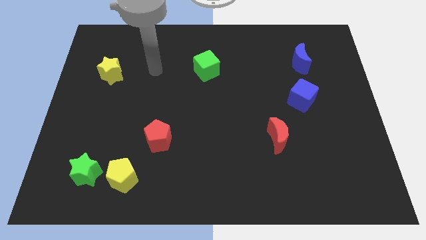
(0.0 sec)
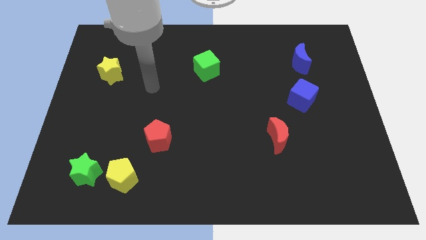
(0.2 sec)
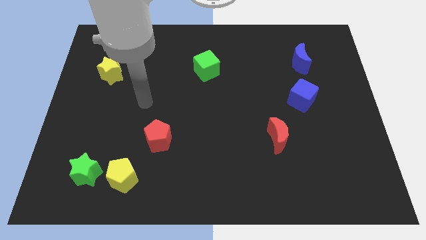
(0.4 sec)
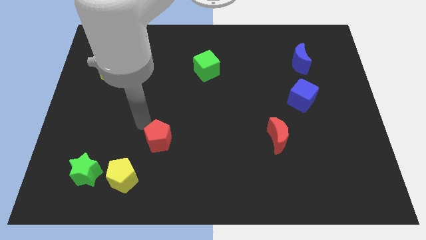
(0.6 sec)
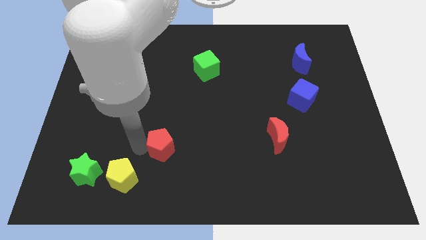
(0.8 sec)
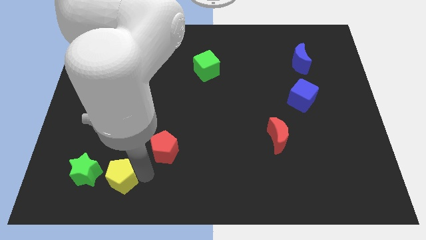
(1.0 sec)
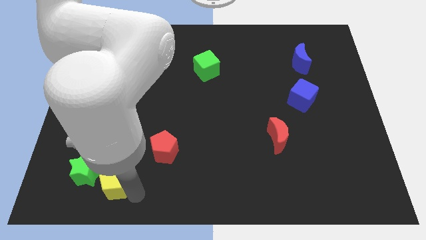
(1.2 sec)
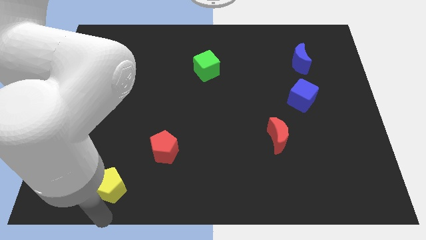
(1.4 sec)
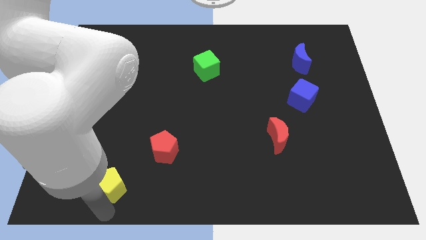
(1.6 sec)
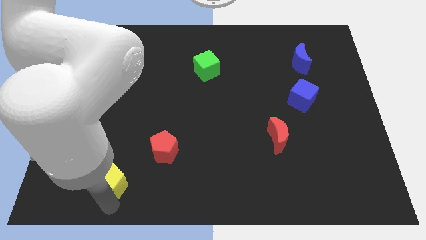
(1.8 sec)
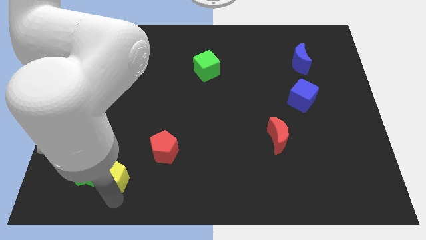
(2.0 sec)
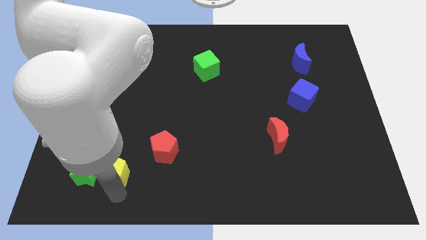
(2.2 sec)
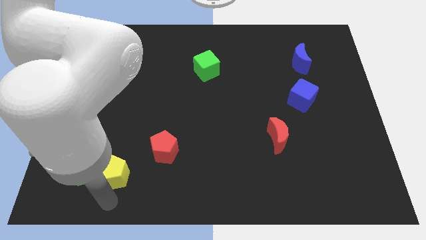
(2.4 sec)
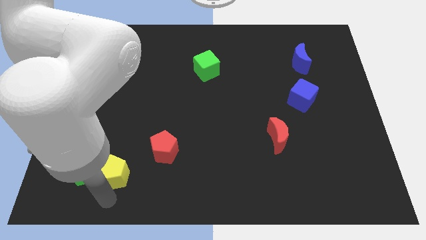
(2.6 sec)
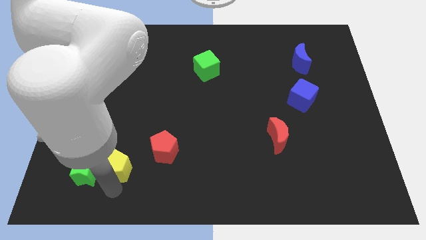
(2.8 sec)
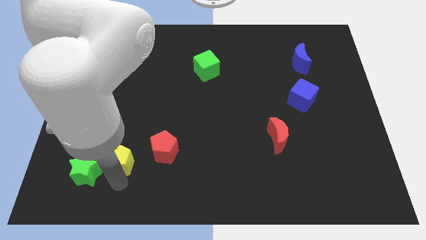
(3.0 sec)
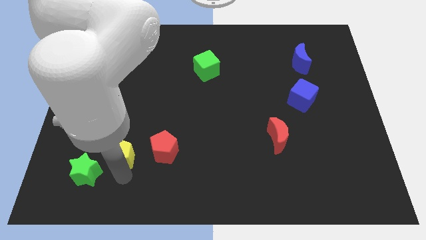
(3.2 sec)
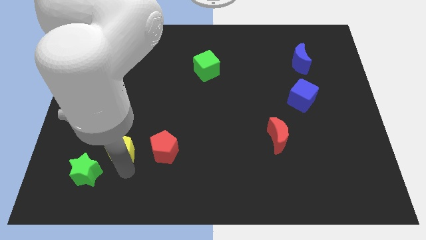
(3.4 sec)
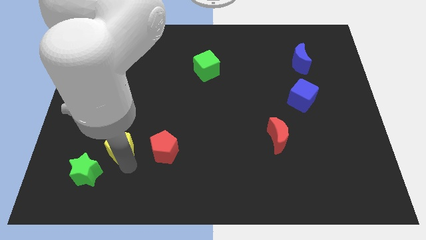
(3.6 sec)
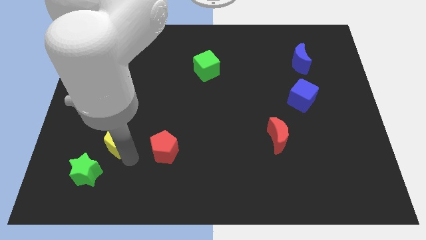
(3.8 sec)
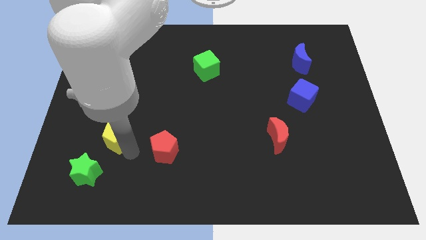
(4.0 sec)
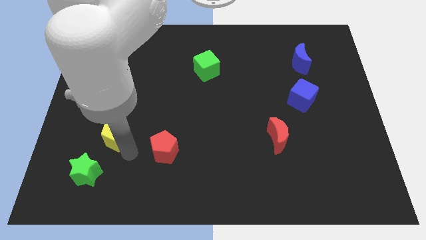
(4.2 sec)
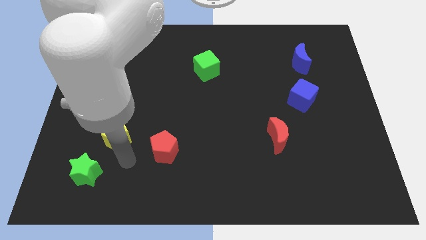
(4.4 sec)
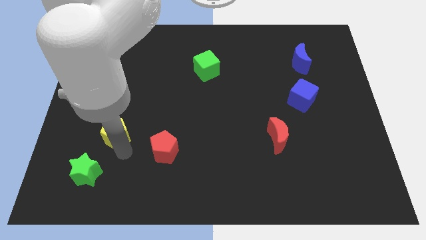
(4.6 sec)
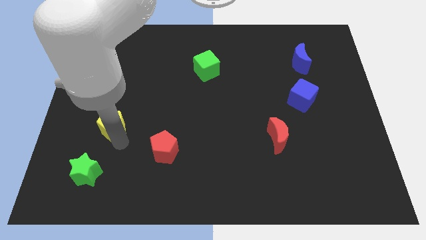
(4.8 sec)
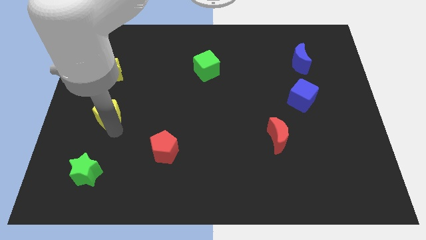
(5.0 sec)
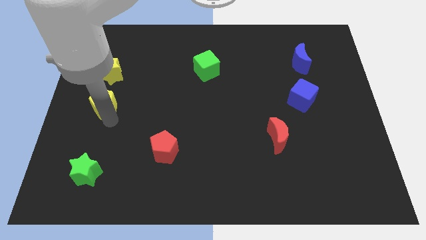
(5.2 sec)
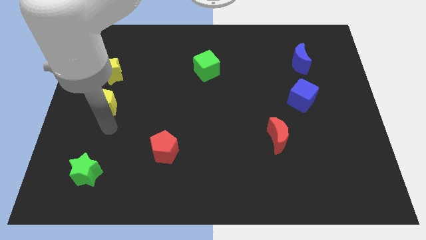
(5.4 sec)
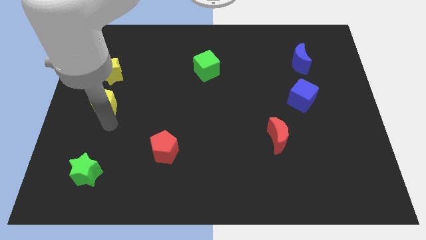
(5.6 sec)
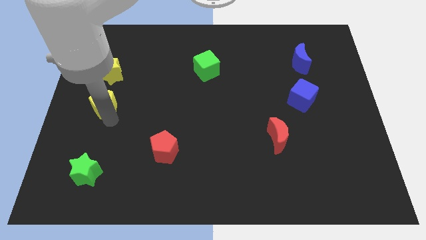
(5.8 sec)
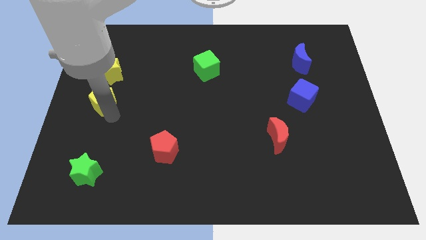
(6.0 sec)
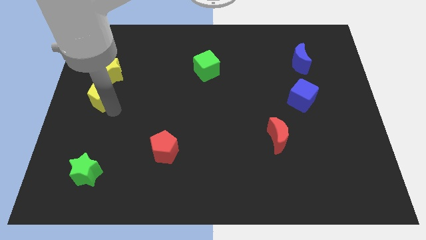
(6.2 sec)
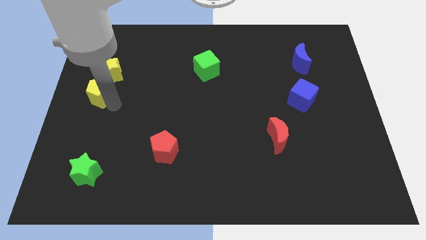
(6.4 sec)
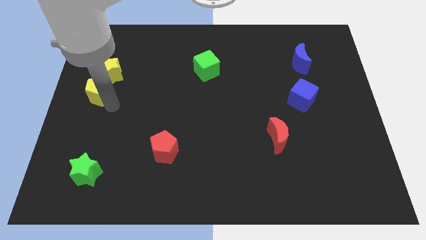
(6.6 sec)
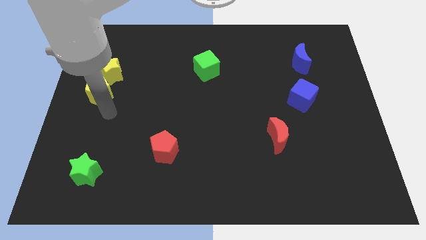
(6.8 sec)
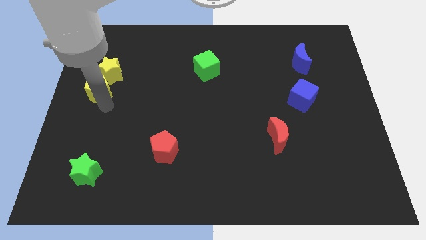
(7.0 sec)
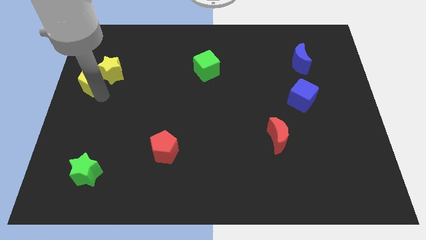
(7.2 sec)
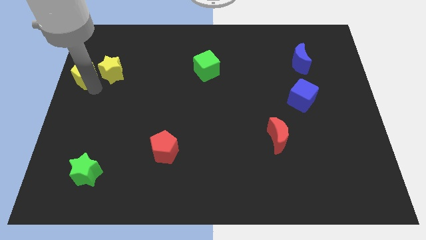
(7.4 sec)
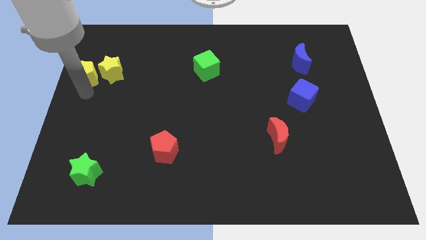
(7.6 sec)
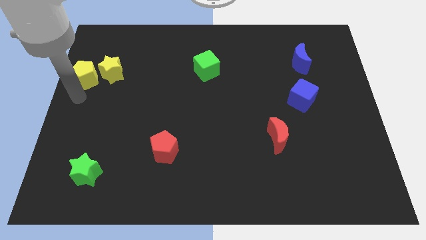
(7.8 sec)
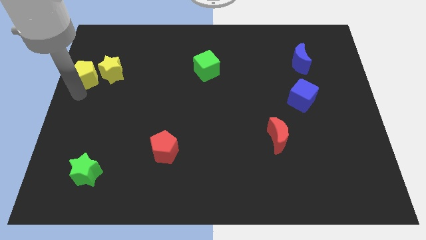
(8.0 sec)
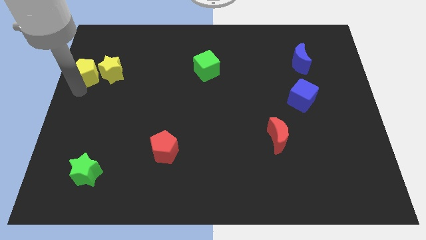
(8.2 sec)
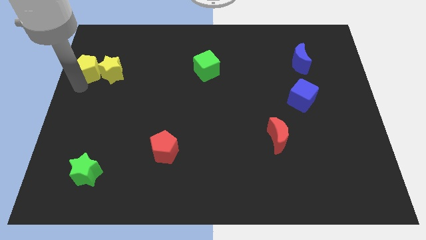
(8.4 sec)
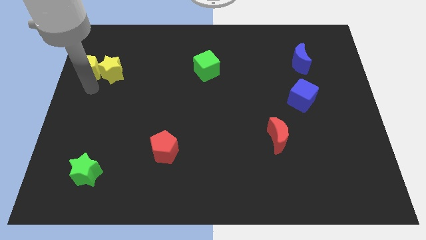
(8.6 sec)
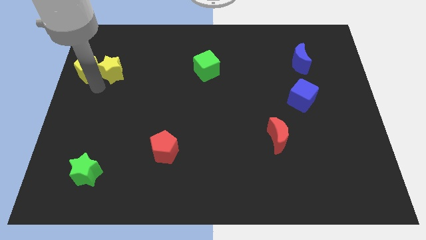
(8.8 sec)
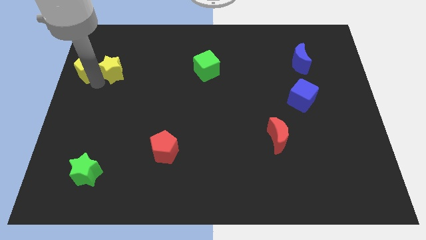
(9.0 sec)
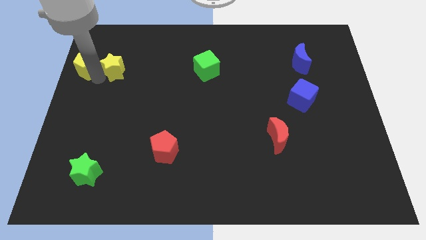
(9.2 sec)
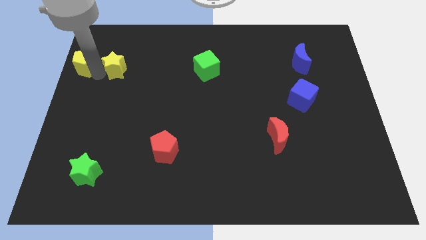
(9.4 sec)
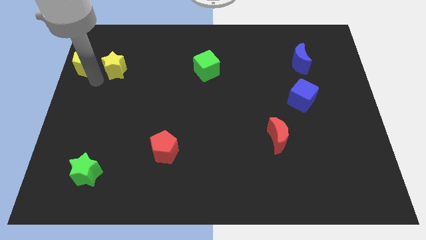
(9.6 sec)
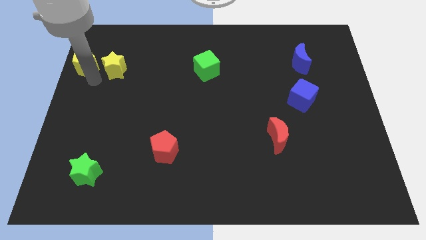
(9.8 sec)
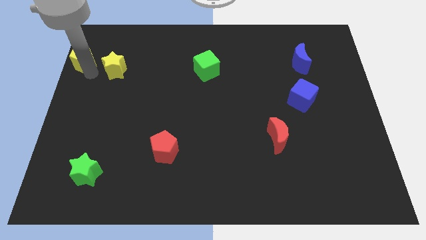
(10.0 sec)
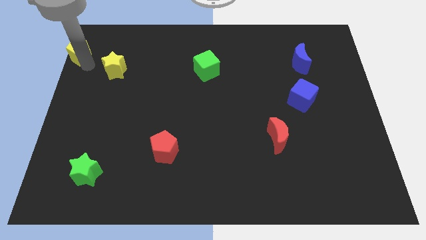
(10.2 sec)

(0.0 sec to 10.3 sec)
slide the yellow pentagon to the upper left corner

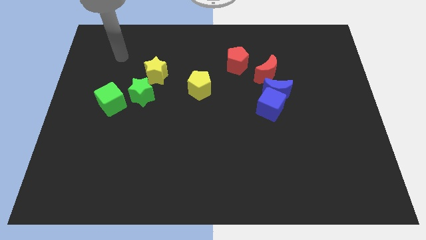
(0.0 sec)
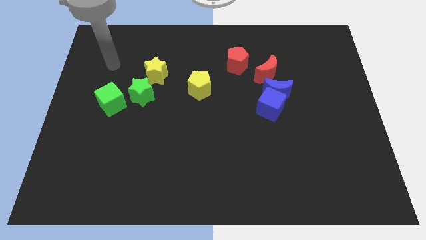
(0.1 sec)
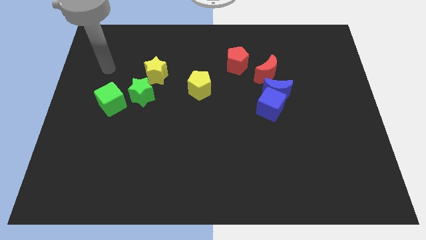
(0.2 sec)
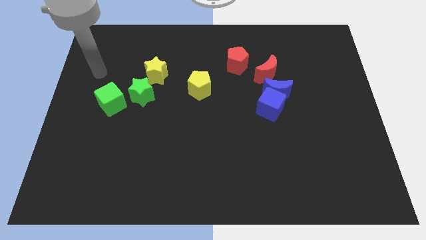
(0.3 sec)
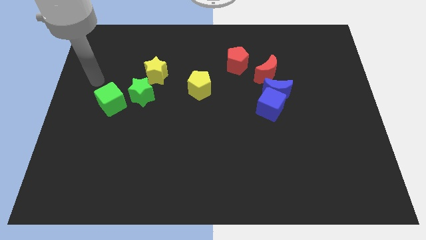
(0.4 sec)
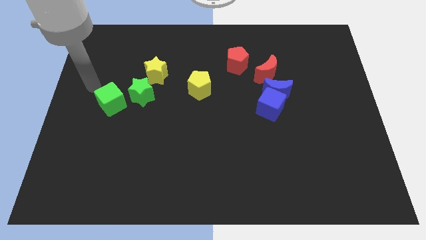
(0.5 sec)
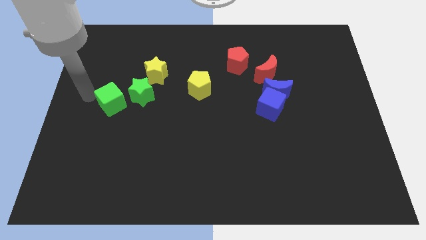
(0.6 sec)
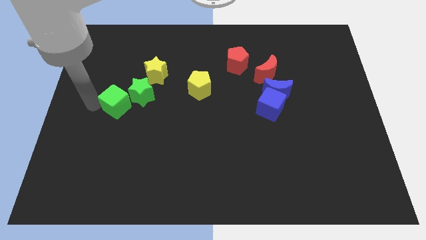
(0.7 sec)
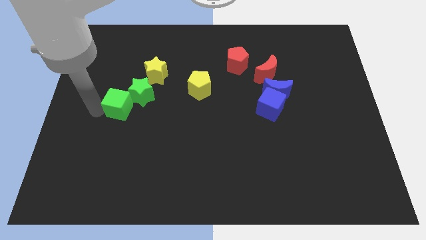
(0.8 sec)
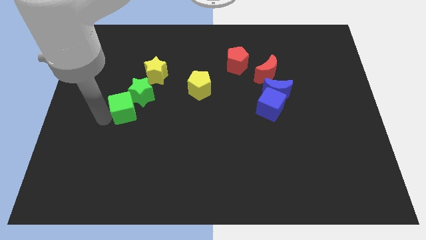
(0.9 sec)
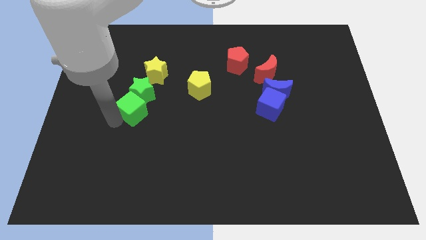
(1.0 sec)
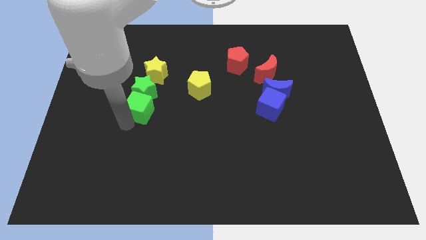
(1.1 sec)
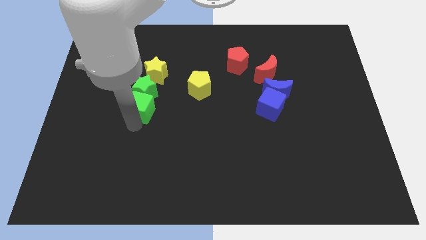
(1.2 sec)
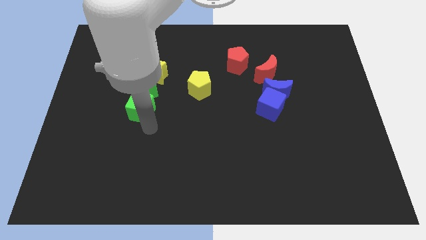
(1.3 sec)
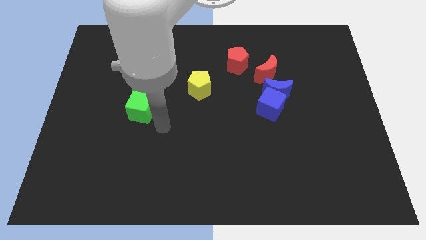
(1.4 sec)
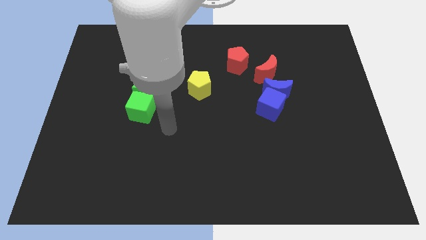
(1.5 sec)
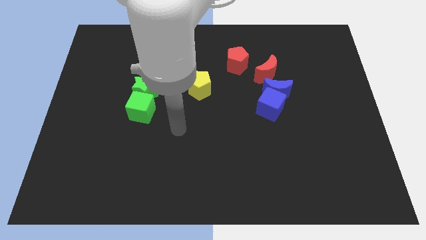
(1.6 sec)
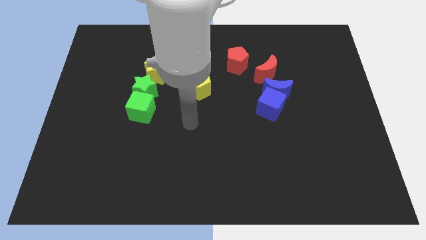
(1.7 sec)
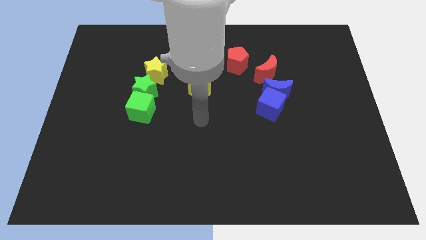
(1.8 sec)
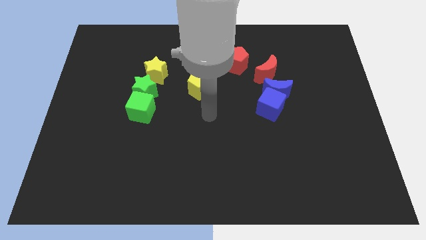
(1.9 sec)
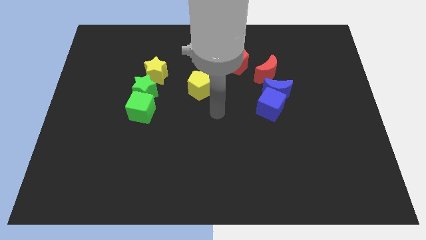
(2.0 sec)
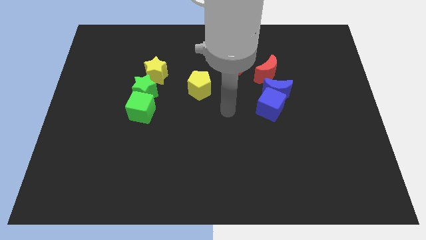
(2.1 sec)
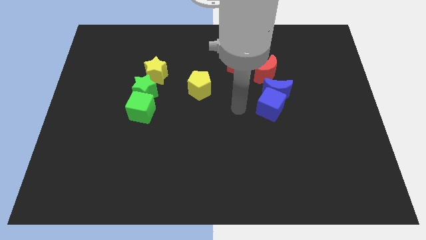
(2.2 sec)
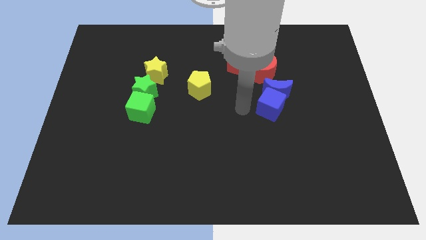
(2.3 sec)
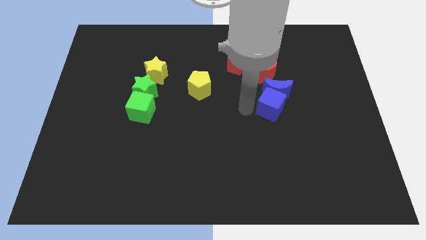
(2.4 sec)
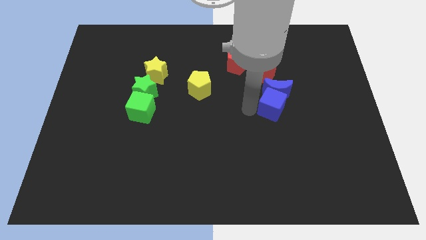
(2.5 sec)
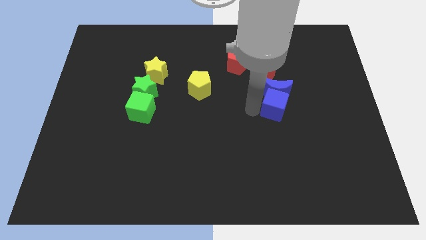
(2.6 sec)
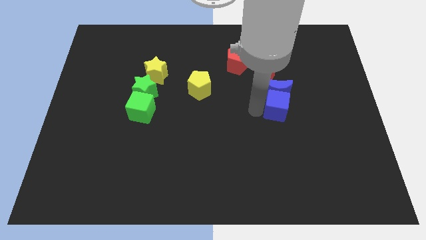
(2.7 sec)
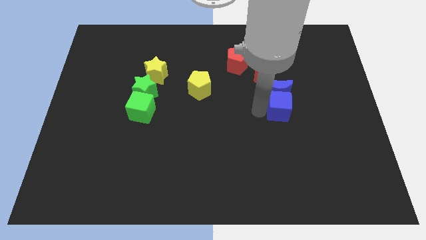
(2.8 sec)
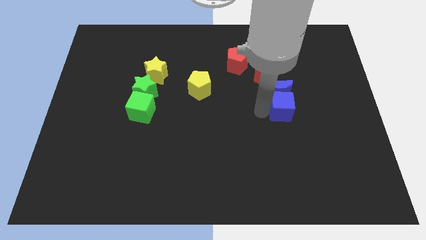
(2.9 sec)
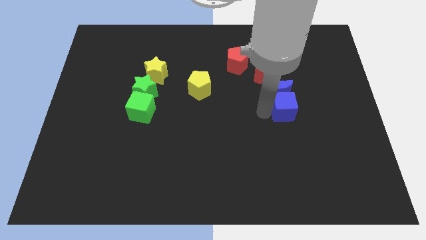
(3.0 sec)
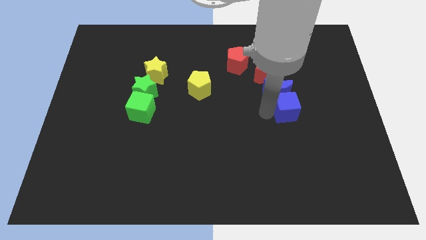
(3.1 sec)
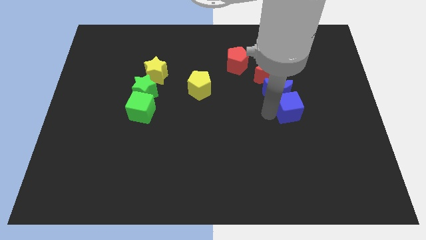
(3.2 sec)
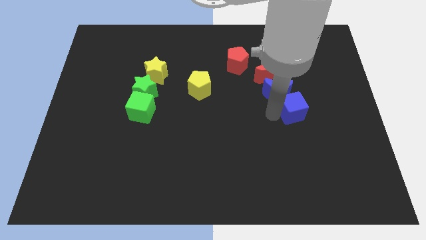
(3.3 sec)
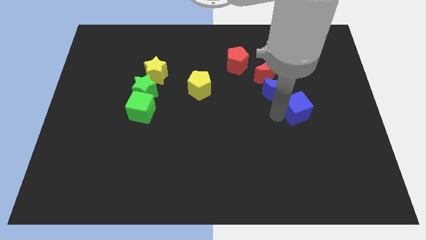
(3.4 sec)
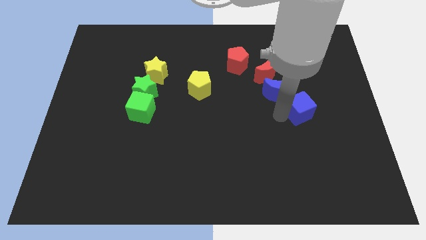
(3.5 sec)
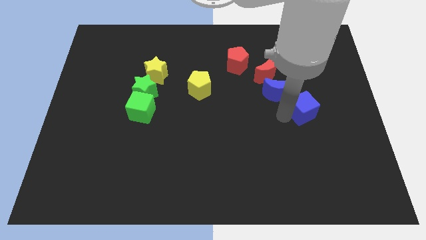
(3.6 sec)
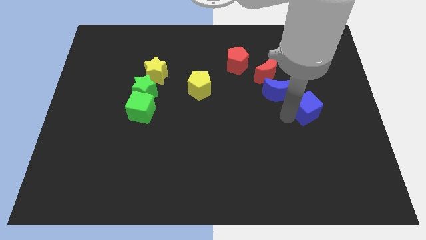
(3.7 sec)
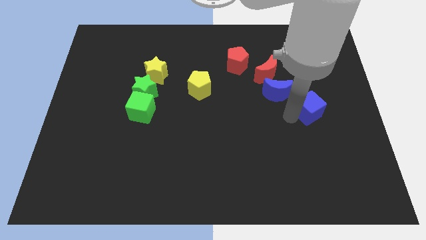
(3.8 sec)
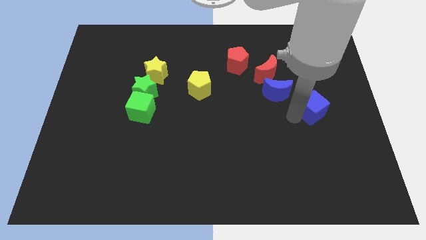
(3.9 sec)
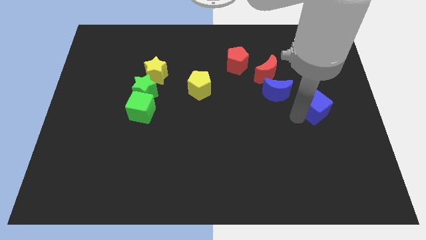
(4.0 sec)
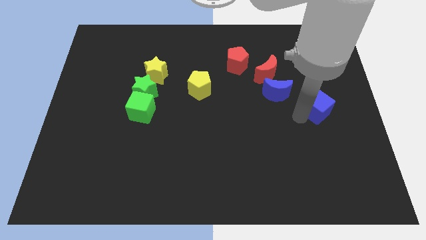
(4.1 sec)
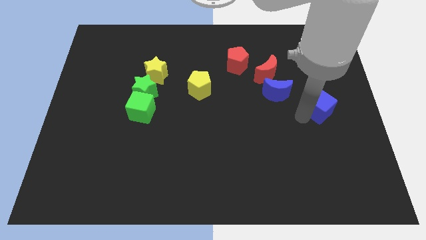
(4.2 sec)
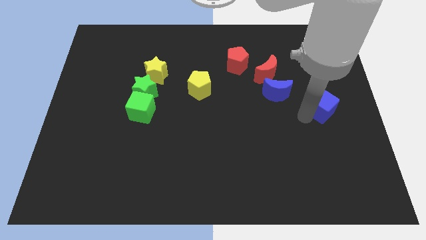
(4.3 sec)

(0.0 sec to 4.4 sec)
push the blue cube to the right side
